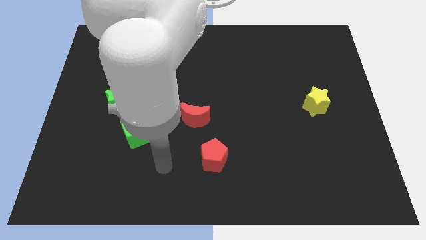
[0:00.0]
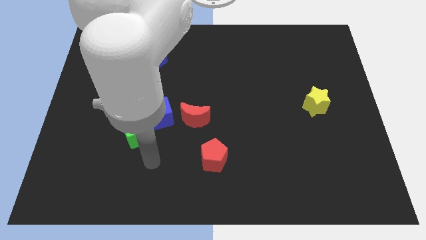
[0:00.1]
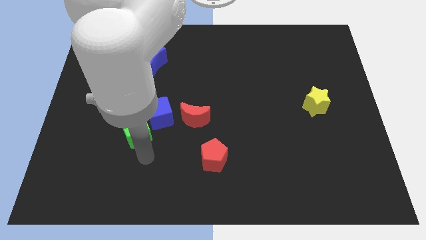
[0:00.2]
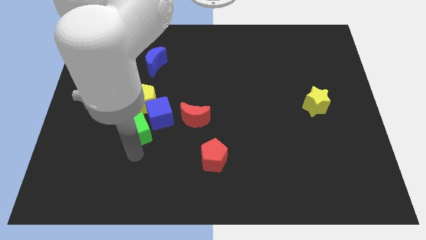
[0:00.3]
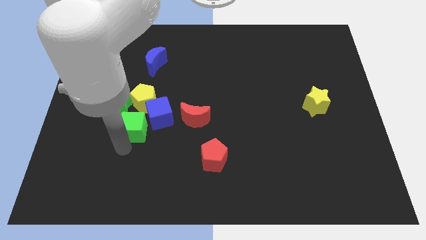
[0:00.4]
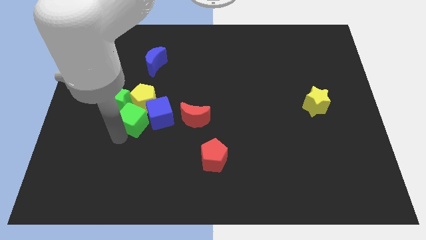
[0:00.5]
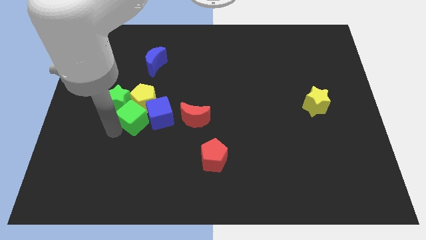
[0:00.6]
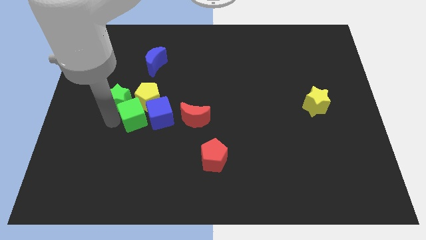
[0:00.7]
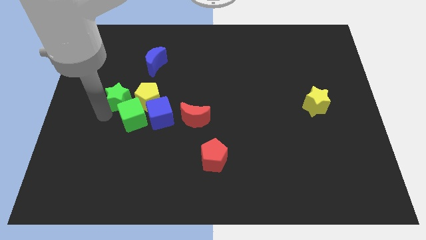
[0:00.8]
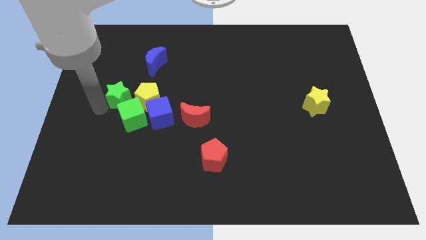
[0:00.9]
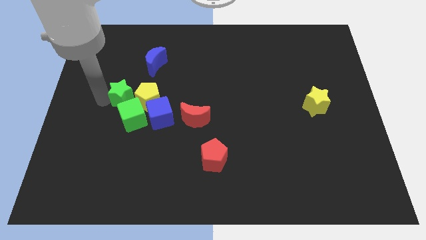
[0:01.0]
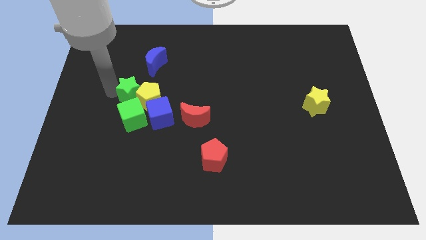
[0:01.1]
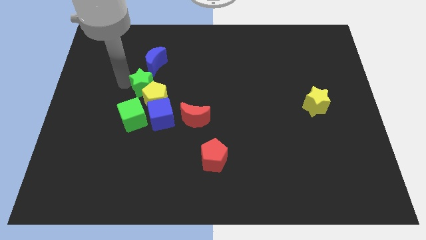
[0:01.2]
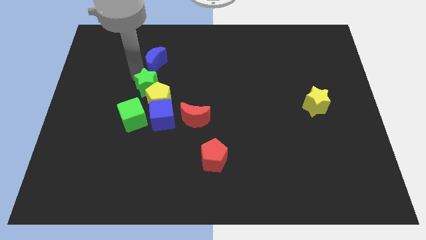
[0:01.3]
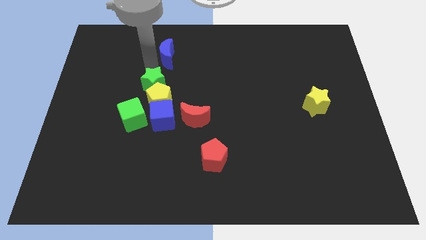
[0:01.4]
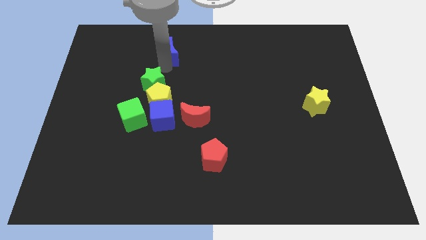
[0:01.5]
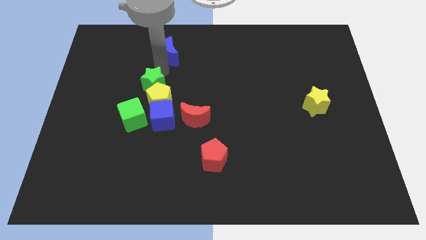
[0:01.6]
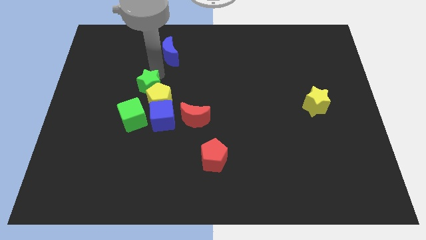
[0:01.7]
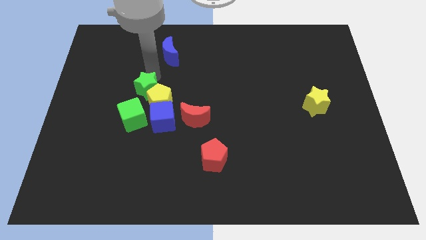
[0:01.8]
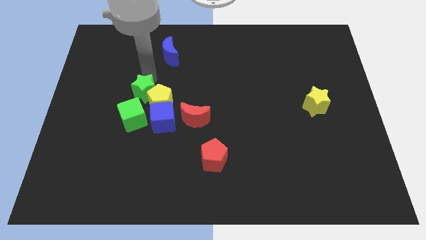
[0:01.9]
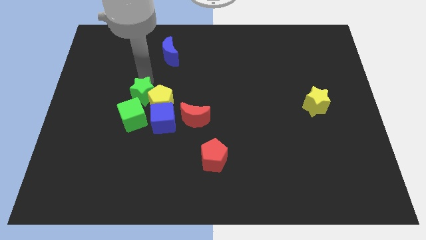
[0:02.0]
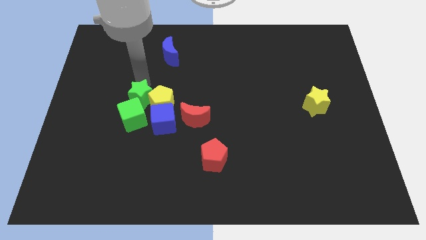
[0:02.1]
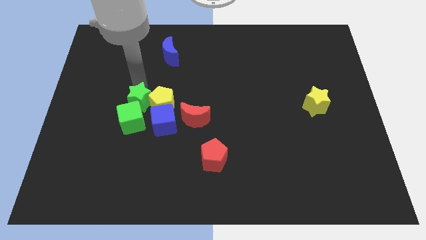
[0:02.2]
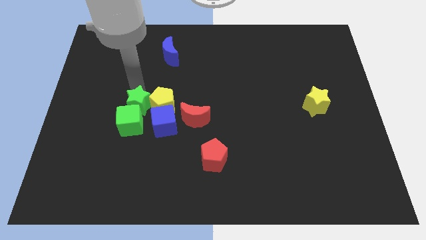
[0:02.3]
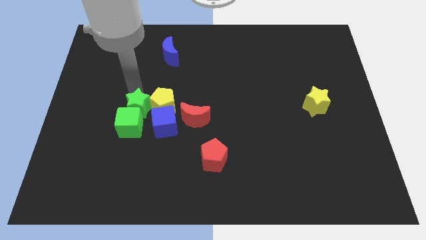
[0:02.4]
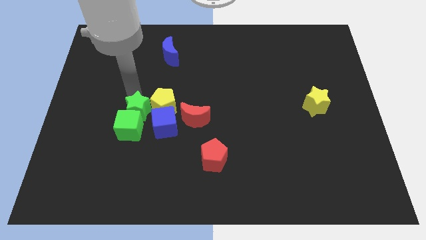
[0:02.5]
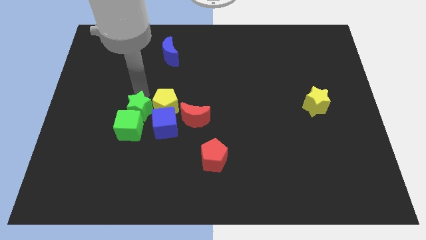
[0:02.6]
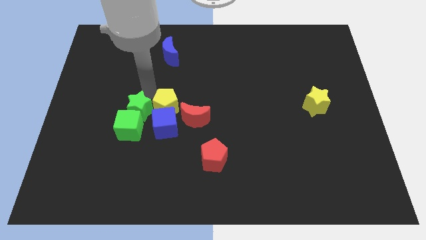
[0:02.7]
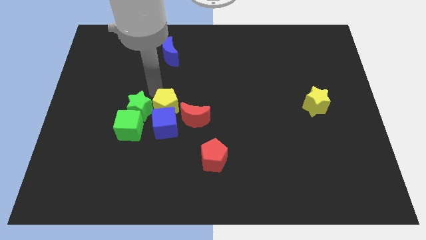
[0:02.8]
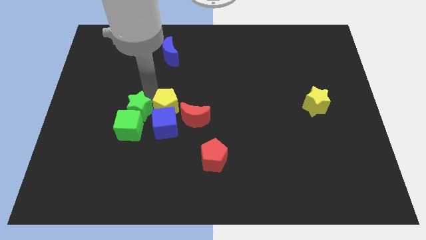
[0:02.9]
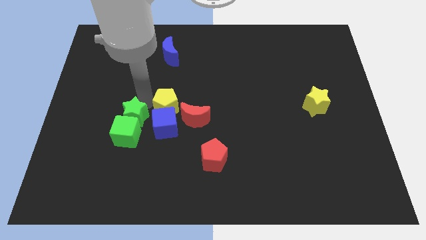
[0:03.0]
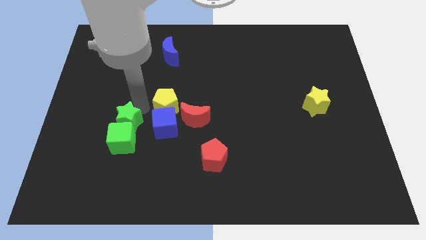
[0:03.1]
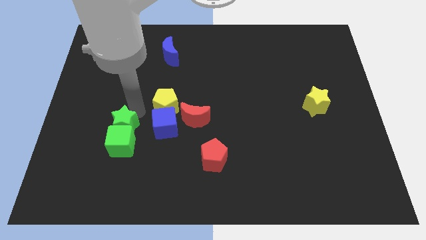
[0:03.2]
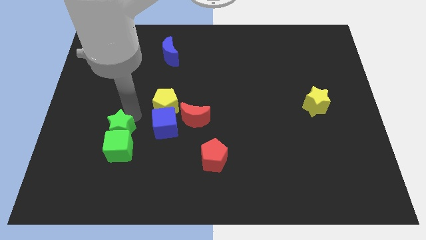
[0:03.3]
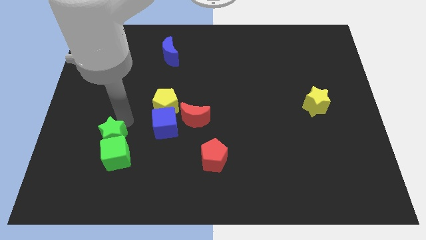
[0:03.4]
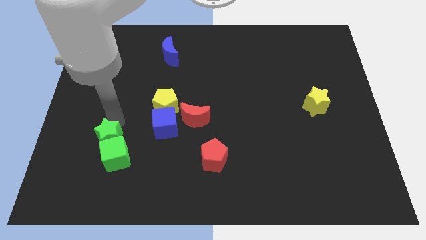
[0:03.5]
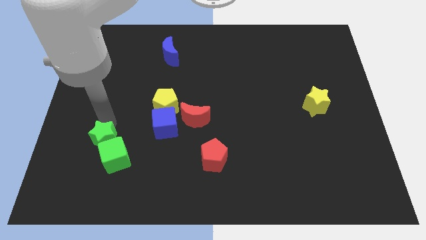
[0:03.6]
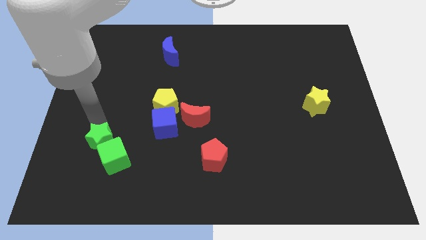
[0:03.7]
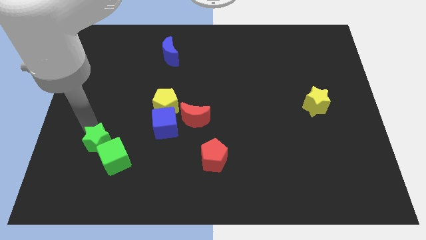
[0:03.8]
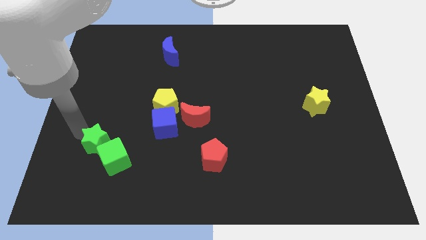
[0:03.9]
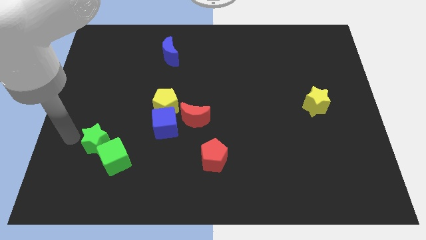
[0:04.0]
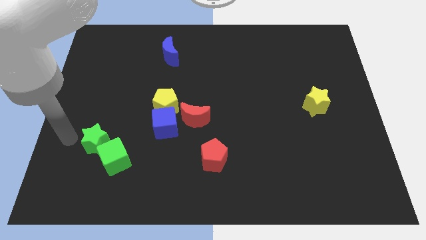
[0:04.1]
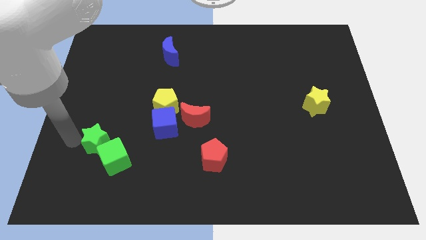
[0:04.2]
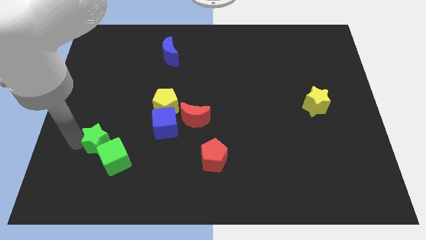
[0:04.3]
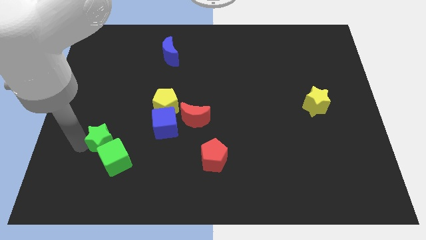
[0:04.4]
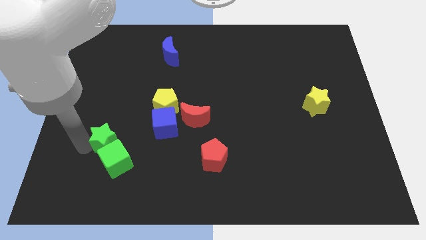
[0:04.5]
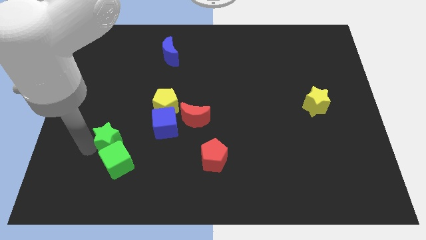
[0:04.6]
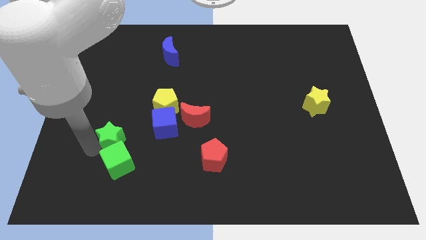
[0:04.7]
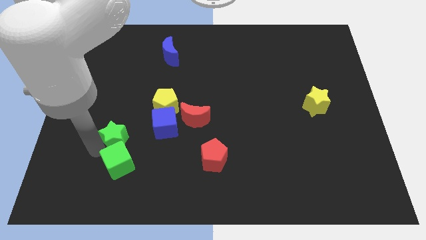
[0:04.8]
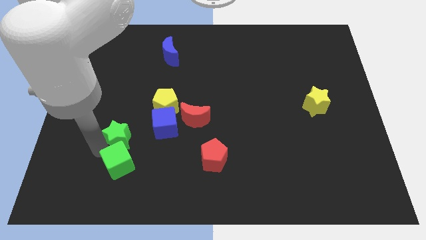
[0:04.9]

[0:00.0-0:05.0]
move the green star a little down and then right

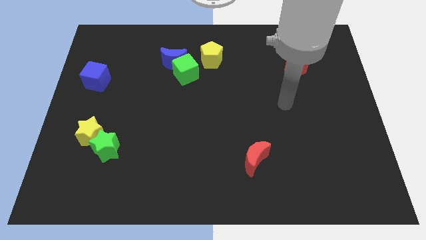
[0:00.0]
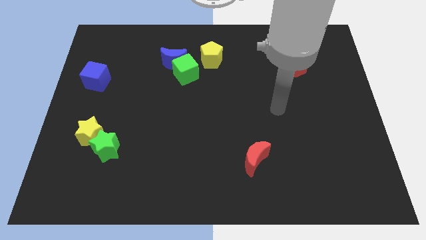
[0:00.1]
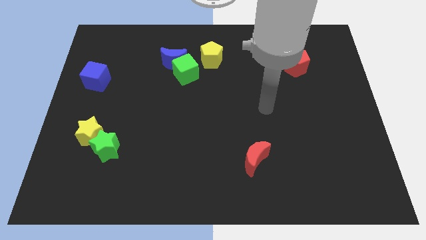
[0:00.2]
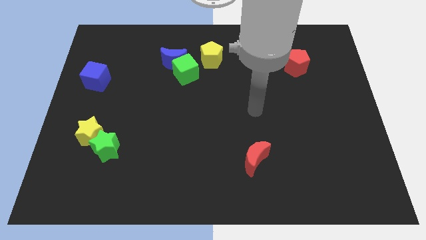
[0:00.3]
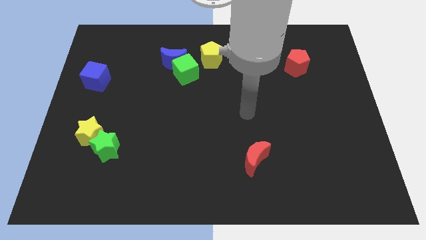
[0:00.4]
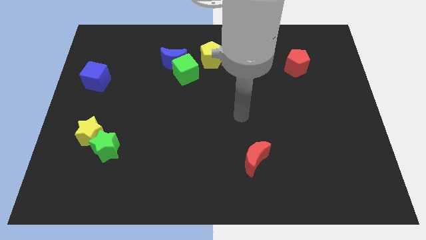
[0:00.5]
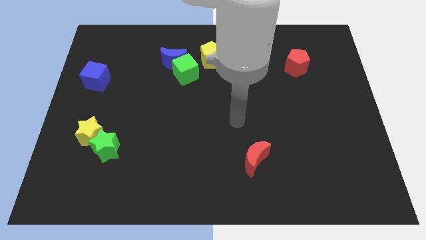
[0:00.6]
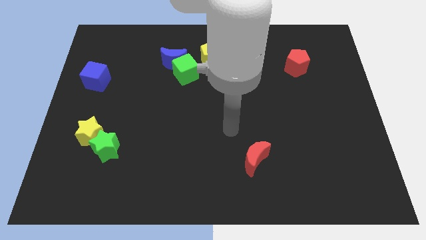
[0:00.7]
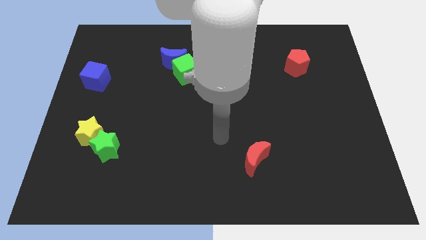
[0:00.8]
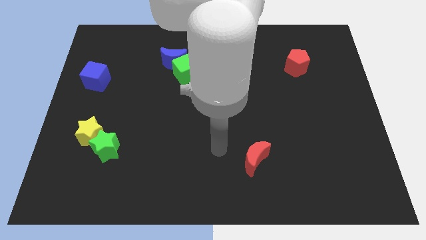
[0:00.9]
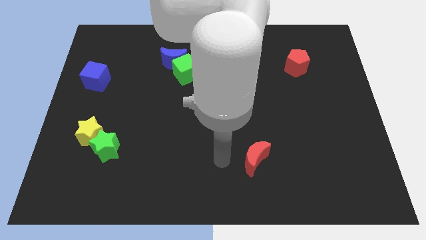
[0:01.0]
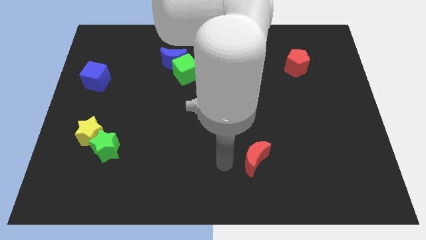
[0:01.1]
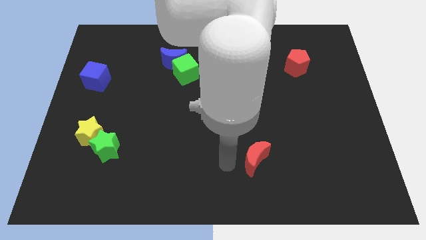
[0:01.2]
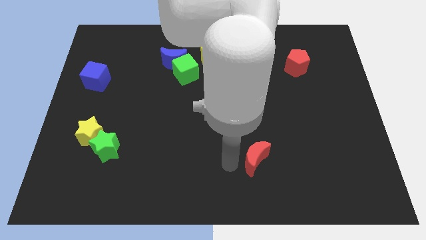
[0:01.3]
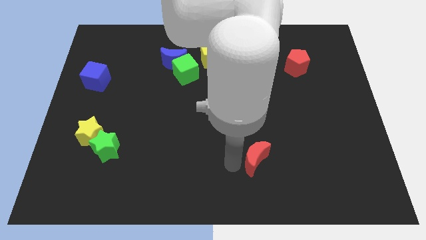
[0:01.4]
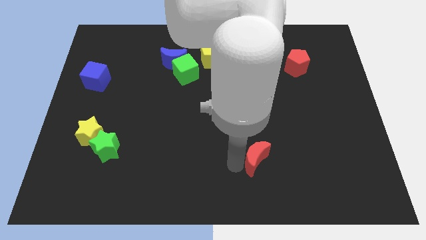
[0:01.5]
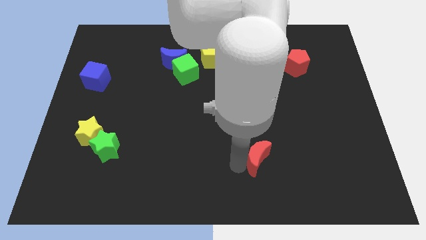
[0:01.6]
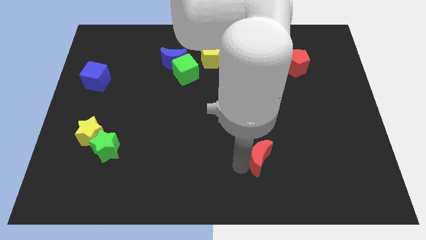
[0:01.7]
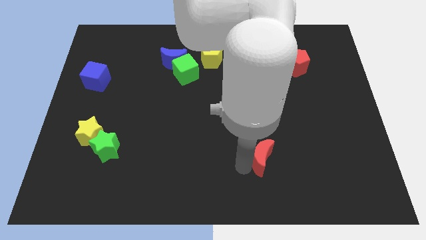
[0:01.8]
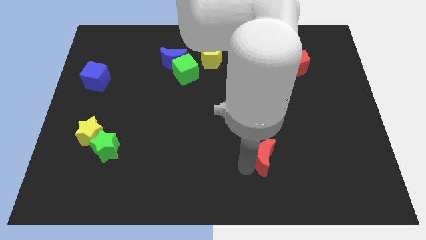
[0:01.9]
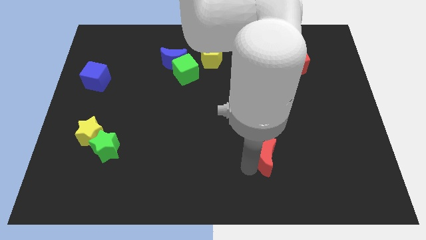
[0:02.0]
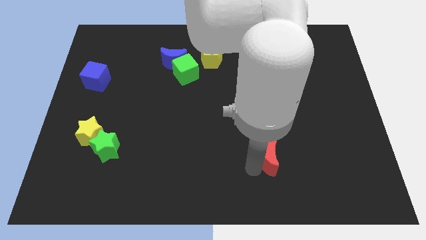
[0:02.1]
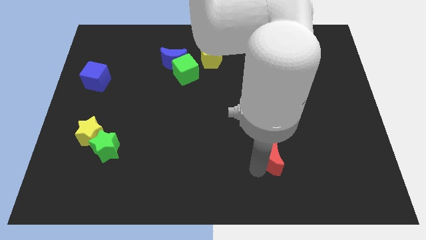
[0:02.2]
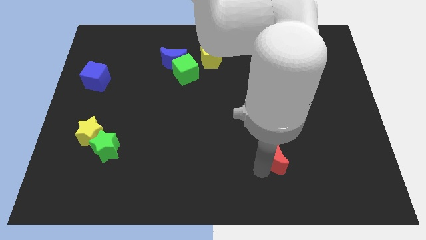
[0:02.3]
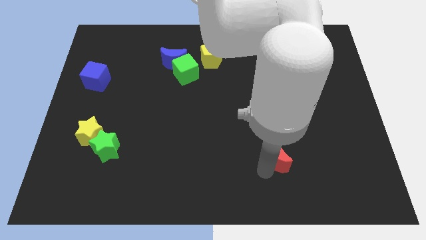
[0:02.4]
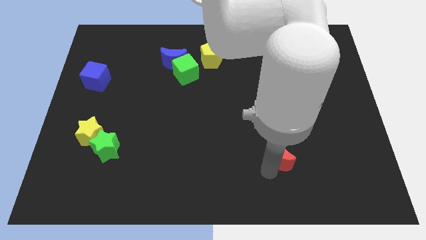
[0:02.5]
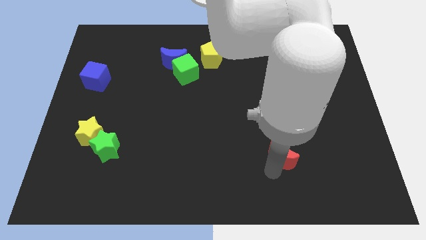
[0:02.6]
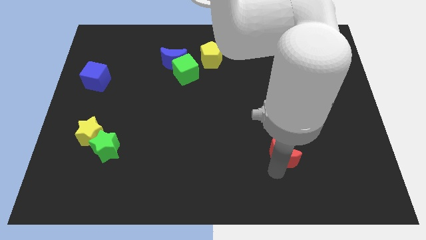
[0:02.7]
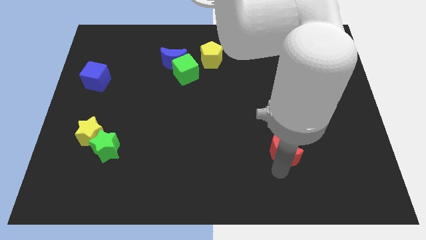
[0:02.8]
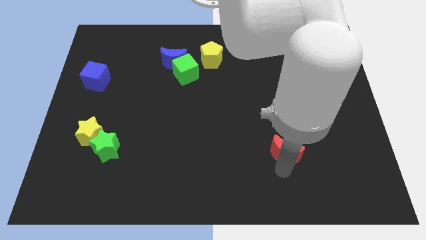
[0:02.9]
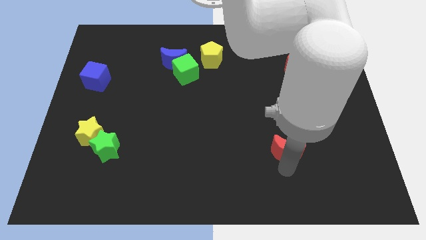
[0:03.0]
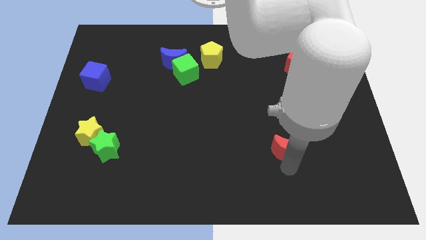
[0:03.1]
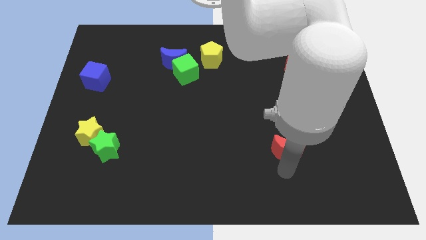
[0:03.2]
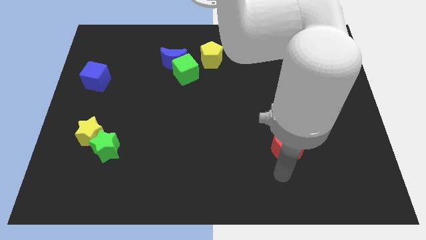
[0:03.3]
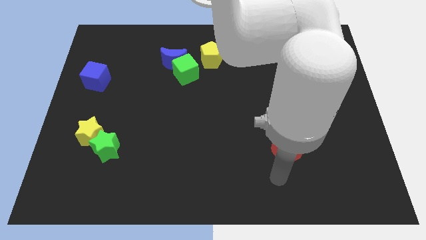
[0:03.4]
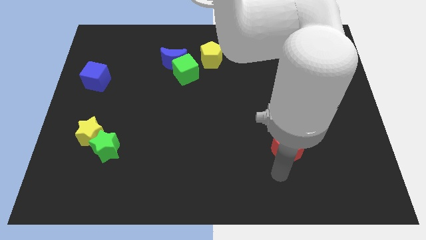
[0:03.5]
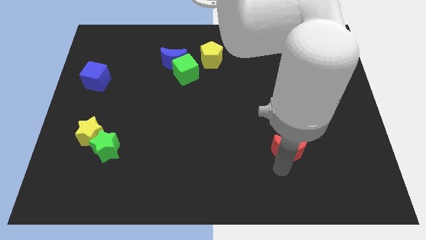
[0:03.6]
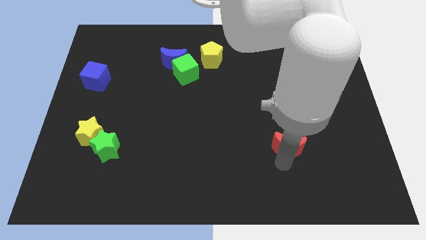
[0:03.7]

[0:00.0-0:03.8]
push the red moon diagonally upwards and right a little bit
